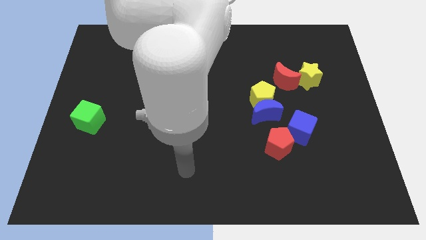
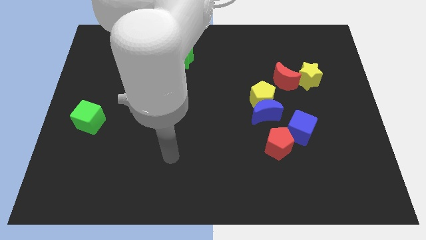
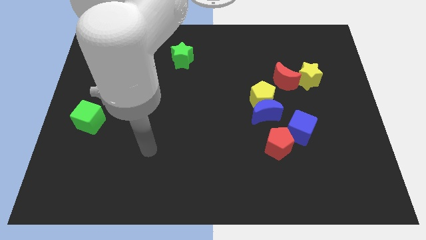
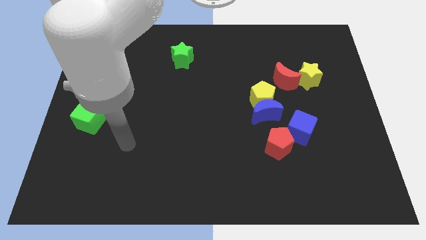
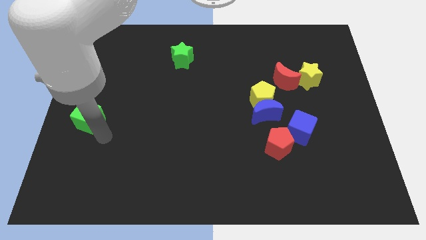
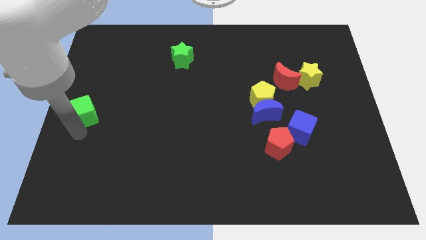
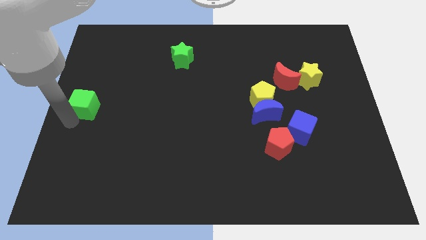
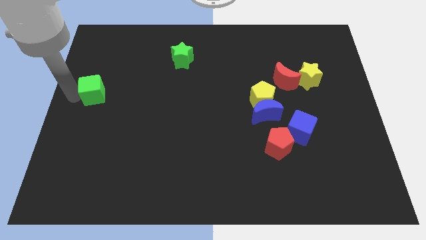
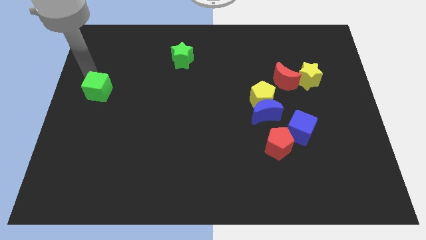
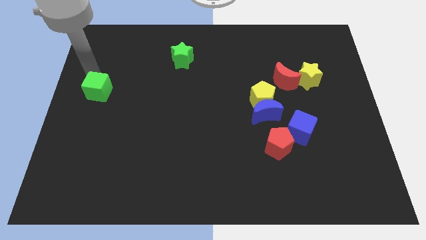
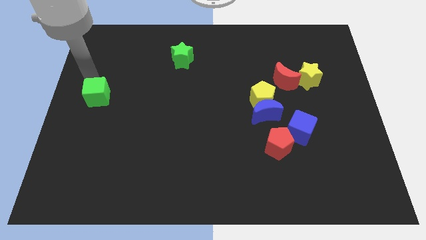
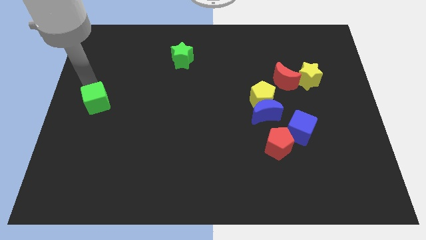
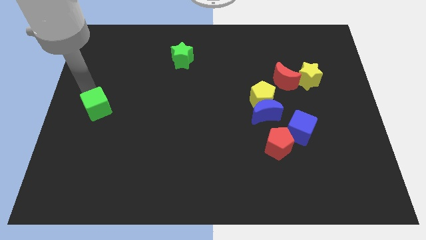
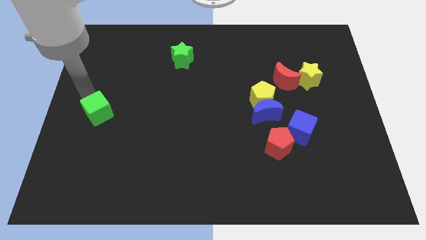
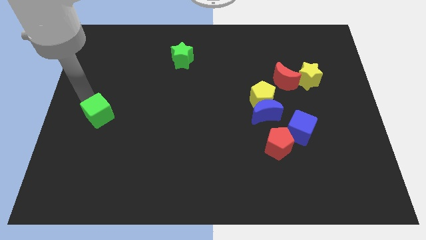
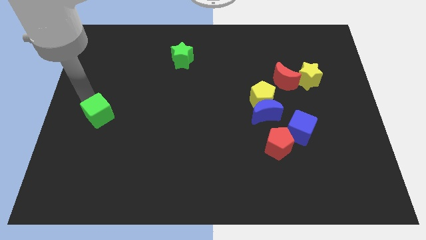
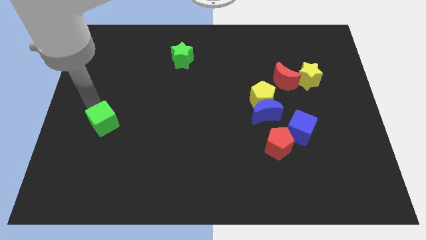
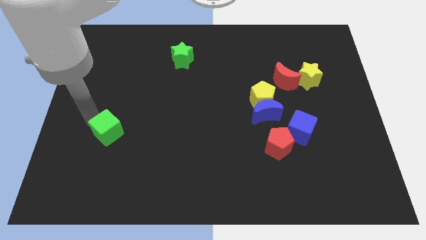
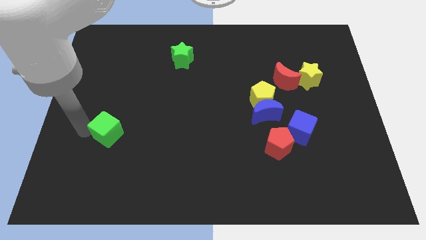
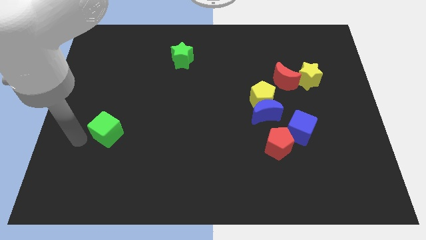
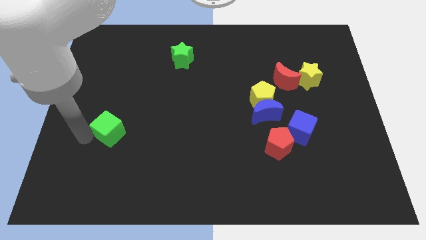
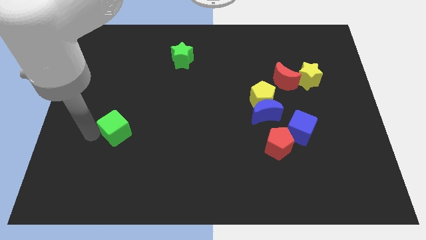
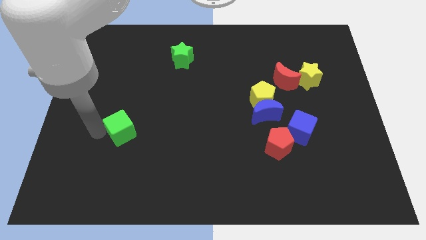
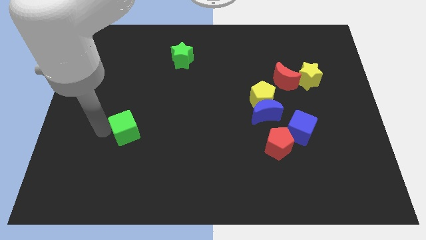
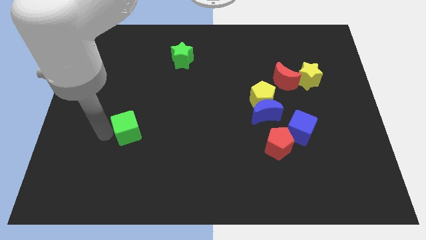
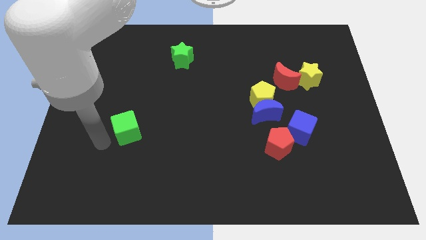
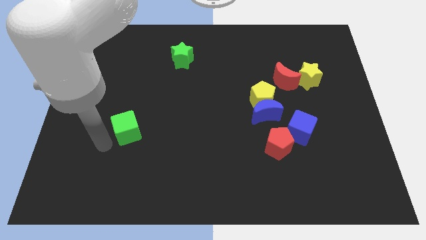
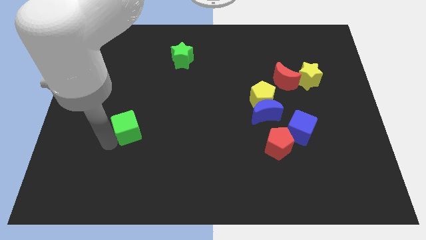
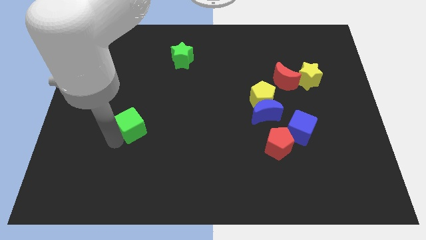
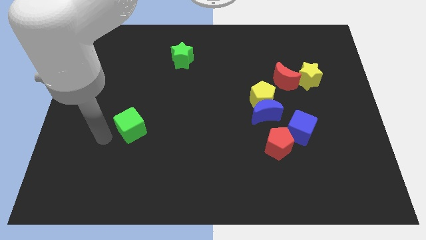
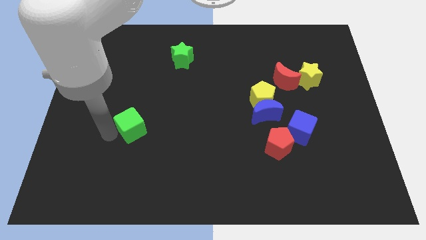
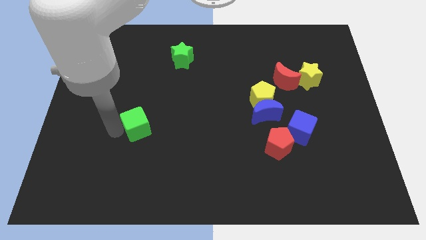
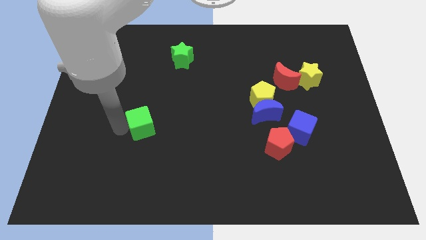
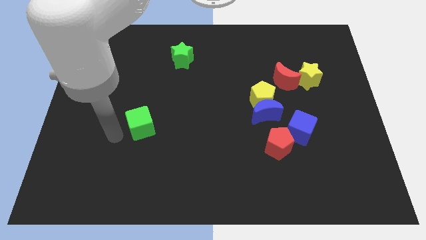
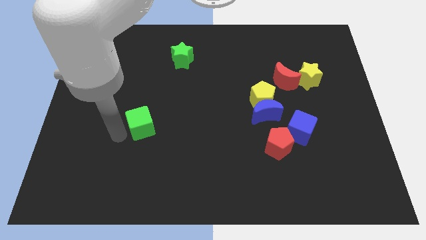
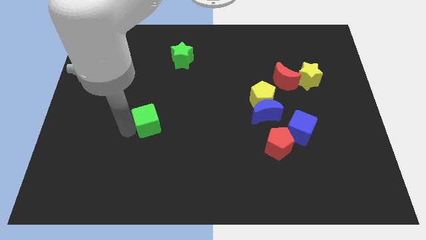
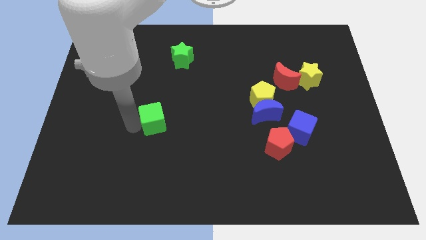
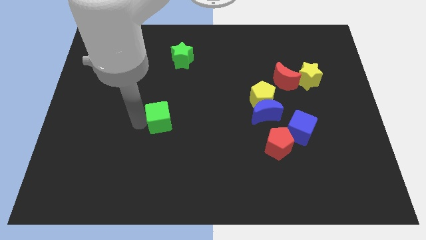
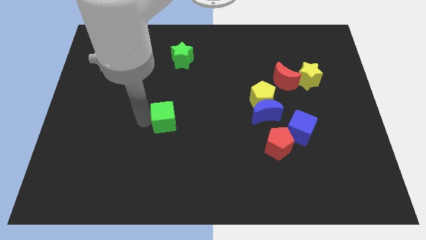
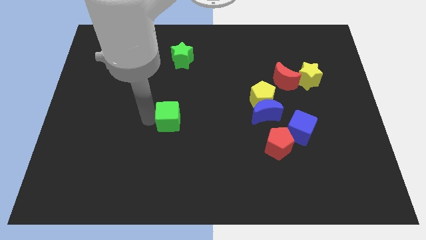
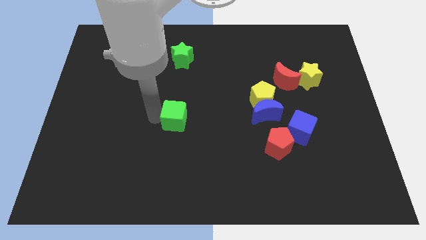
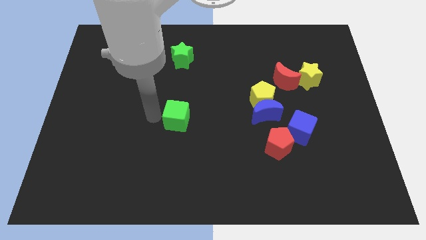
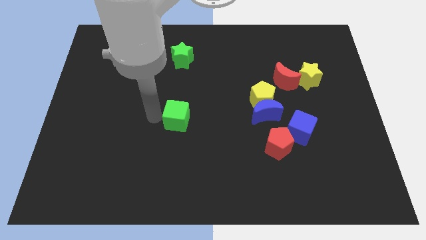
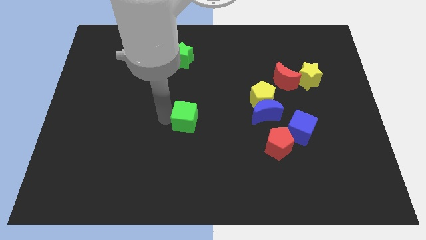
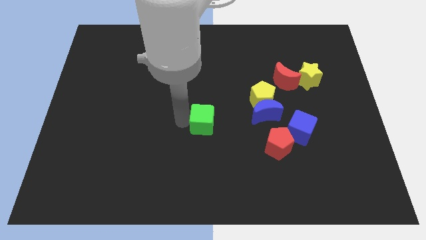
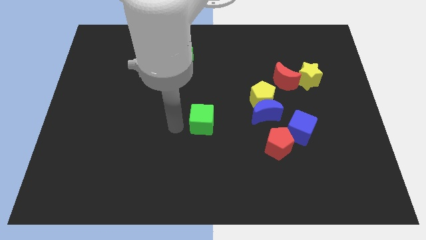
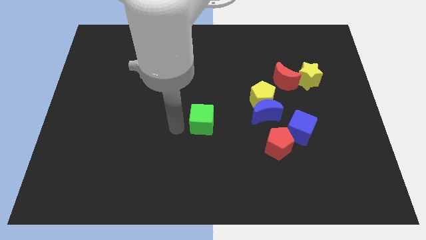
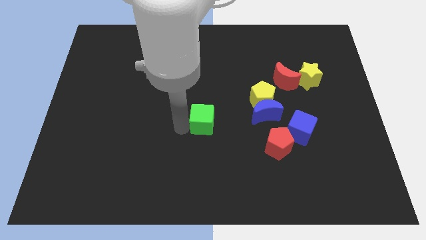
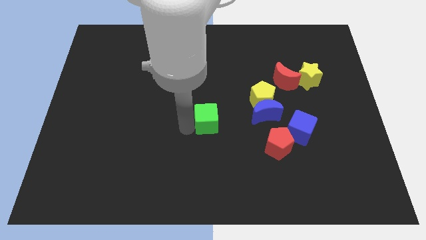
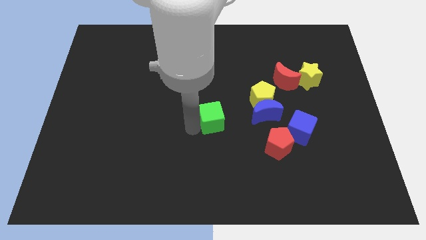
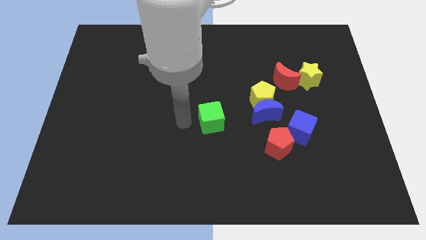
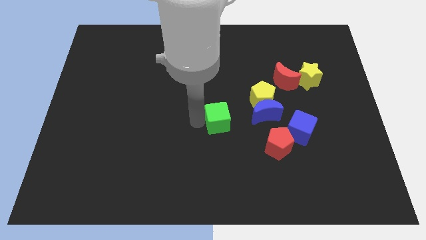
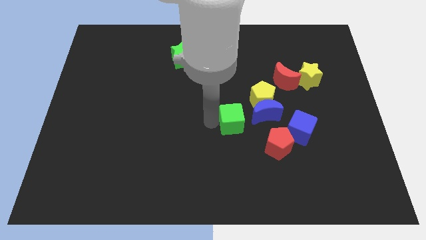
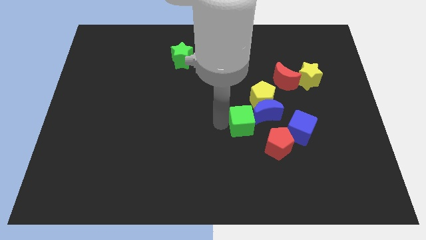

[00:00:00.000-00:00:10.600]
move the green cube close to the blue moon

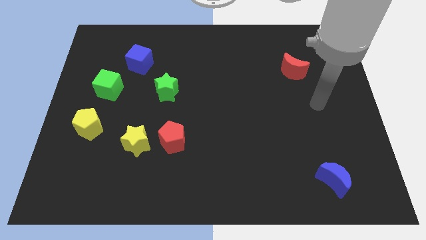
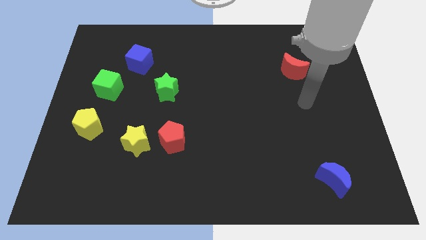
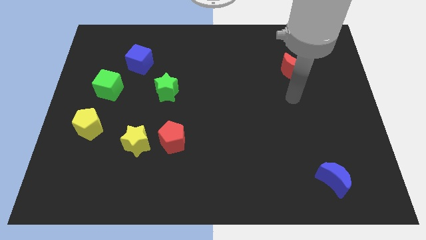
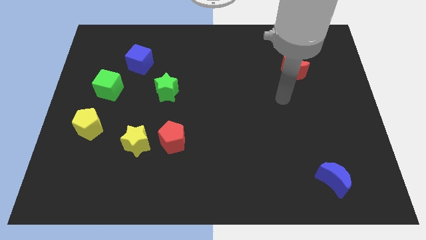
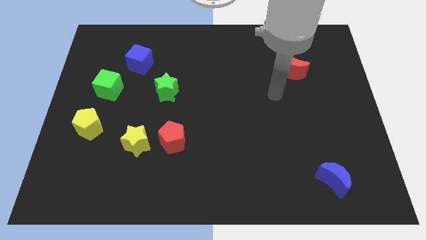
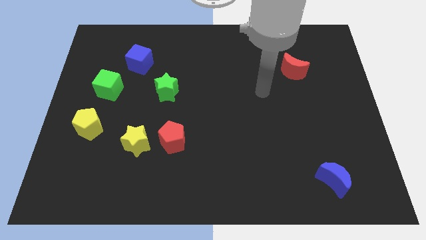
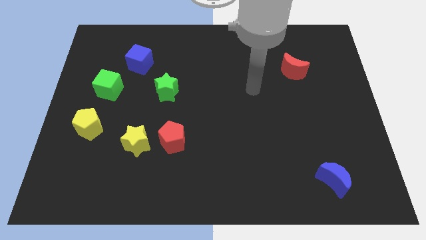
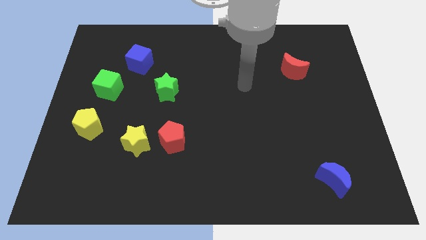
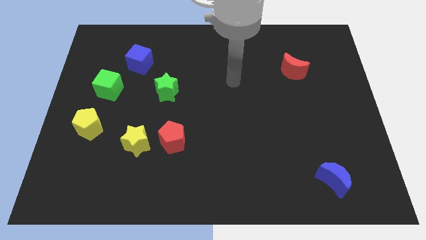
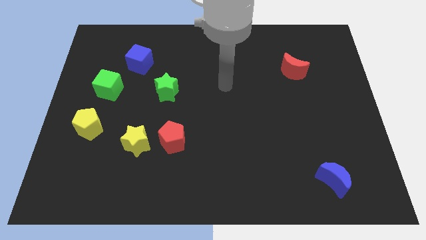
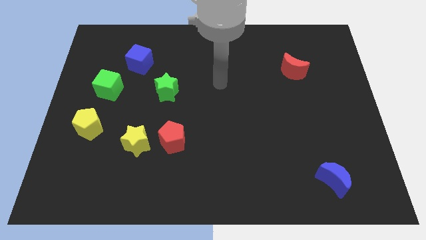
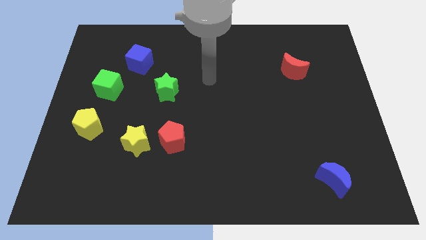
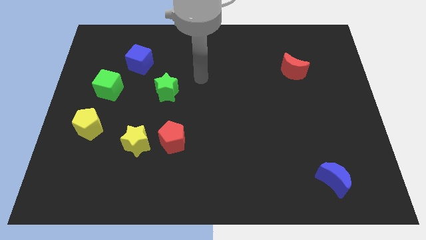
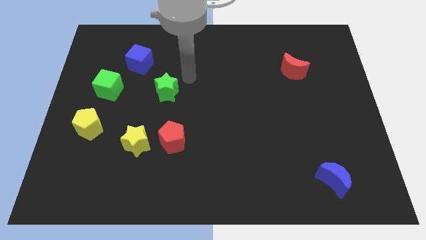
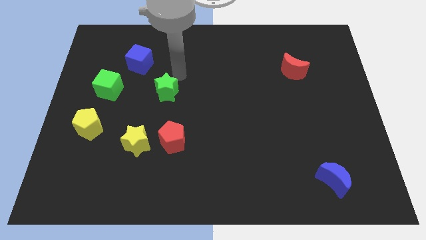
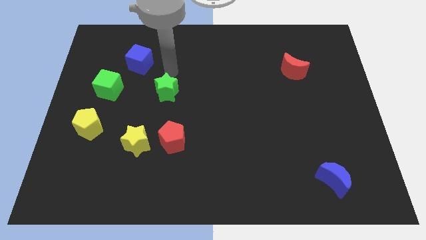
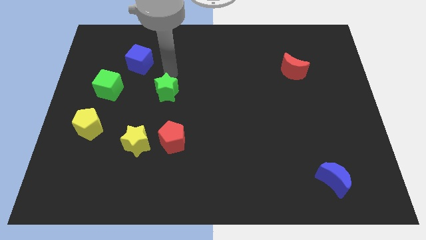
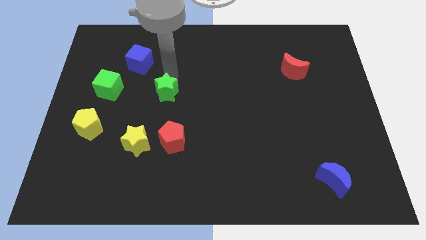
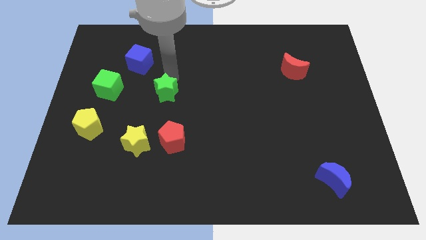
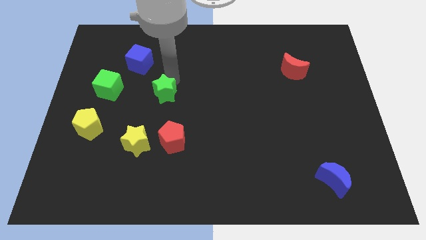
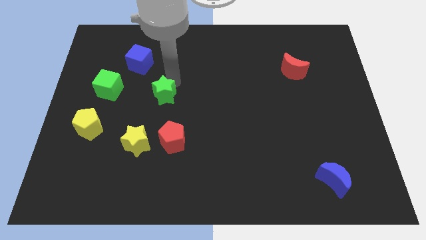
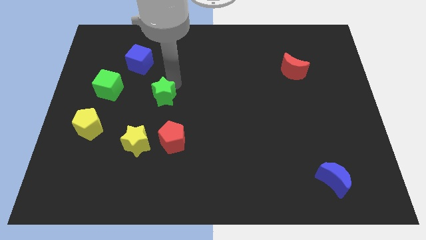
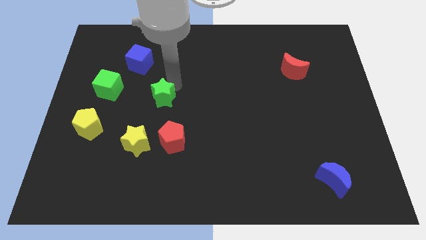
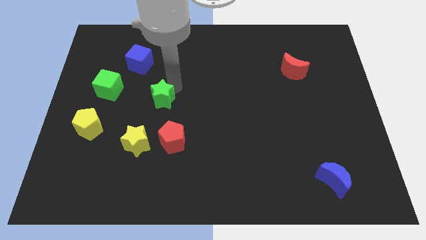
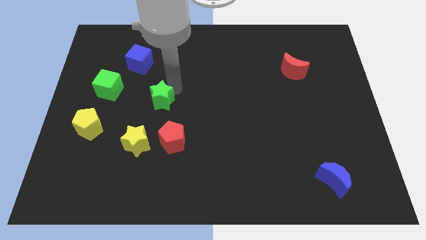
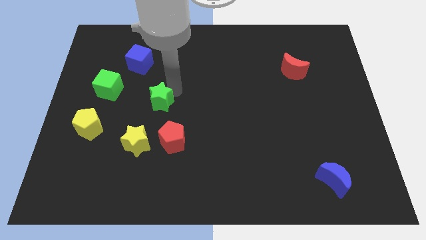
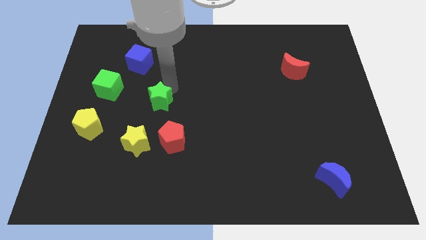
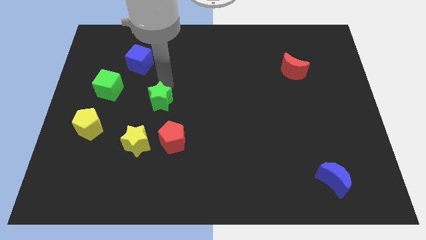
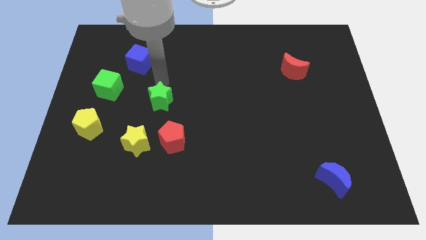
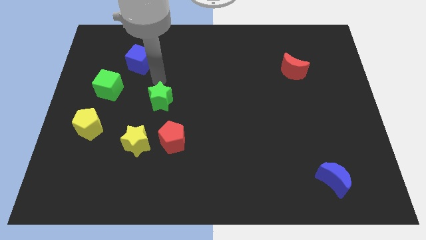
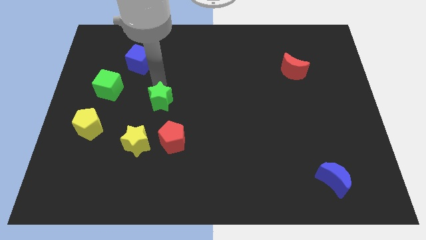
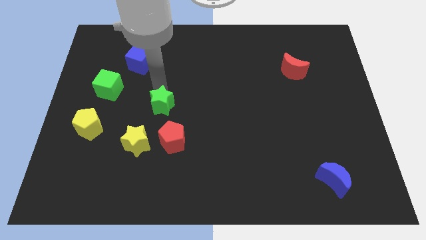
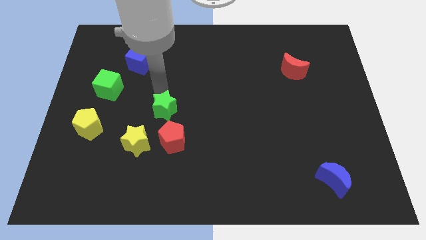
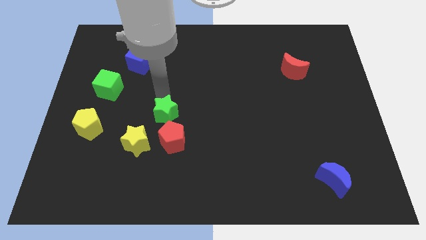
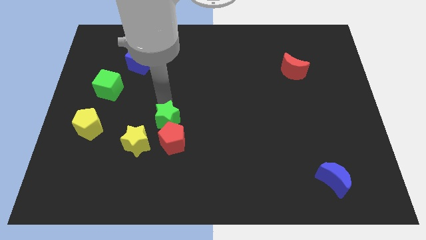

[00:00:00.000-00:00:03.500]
slide the green star close to the red pentagon
